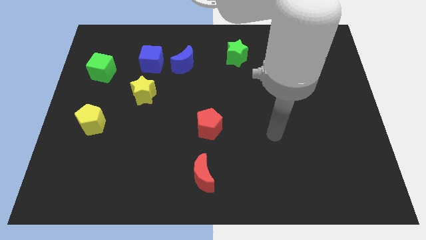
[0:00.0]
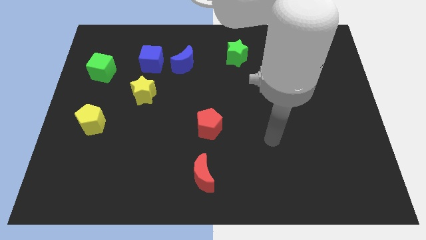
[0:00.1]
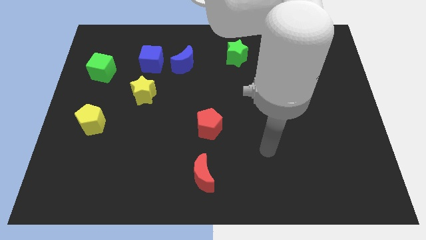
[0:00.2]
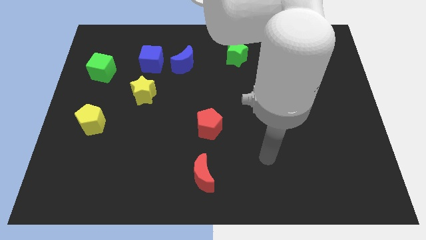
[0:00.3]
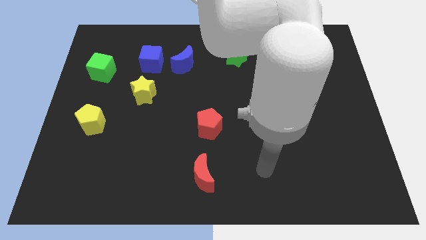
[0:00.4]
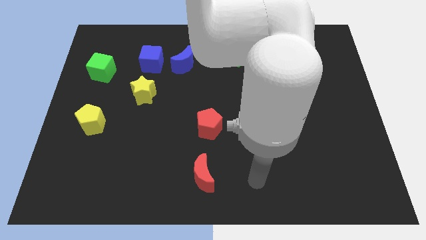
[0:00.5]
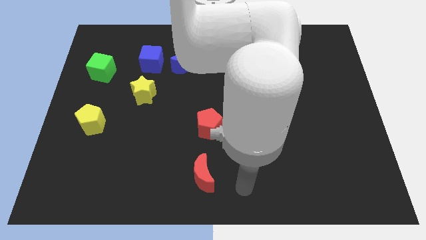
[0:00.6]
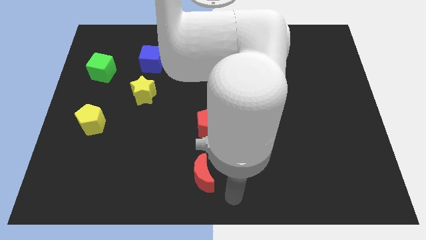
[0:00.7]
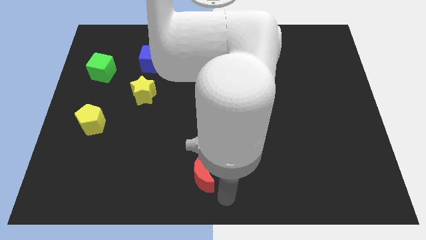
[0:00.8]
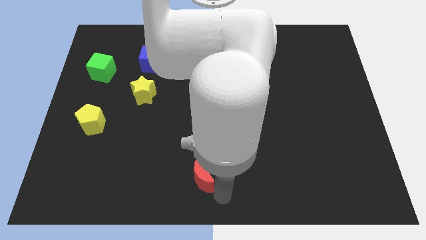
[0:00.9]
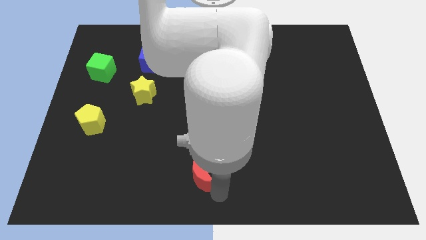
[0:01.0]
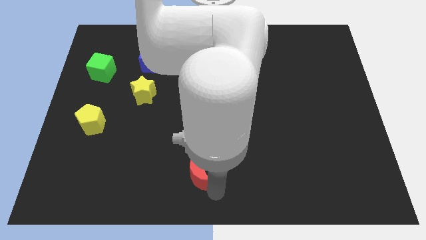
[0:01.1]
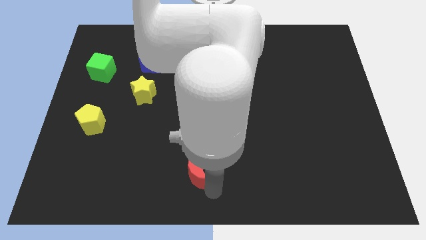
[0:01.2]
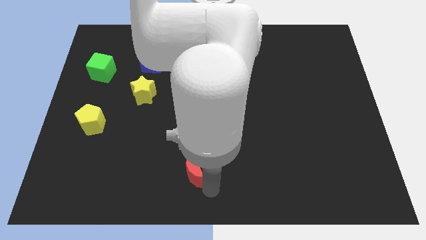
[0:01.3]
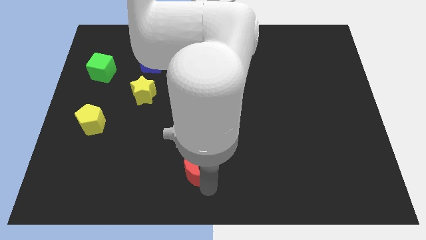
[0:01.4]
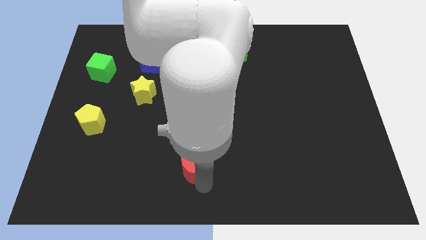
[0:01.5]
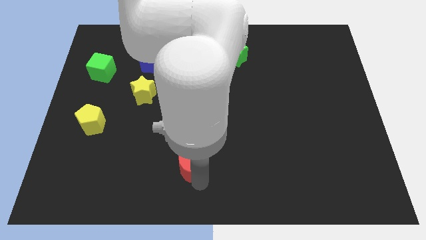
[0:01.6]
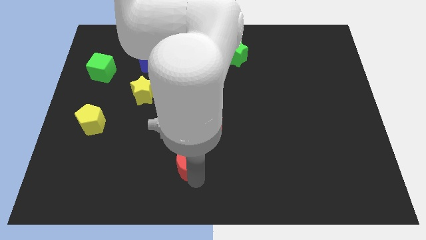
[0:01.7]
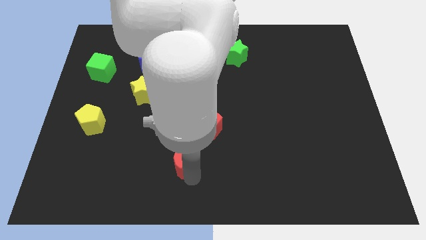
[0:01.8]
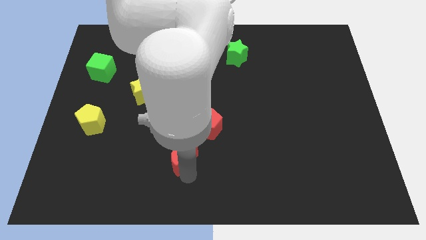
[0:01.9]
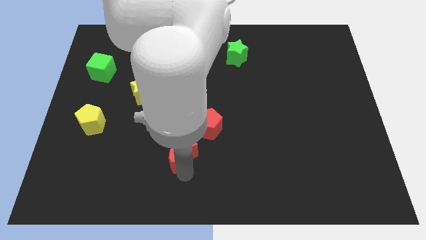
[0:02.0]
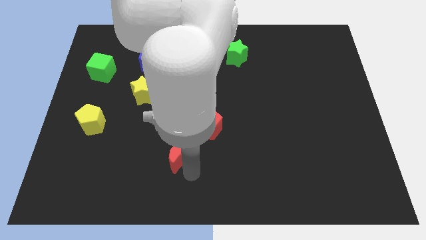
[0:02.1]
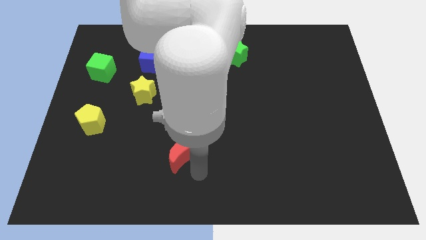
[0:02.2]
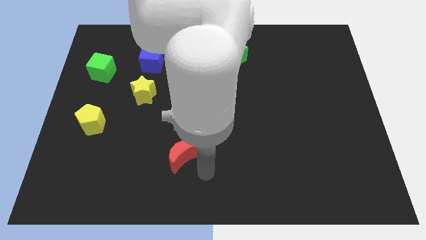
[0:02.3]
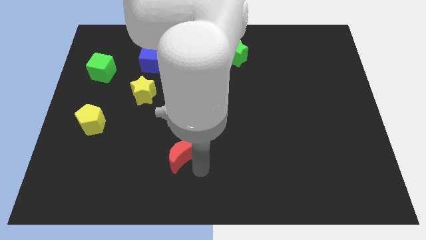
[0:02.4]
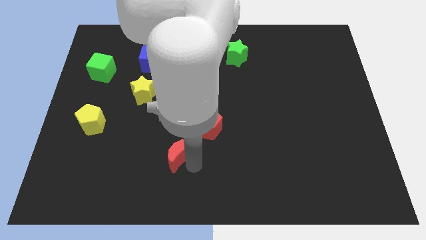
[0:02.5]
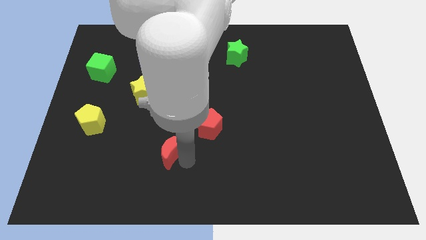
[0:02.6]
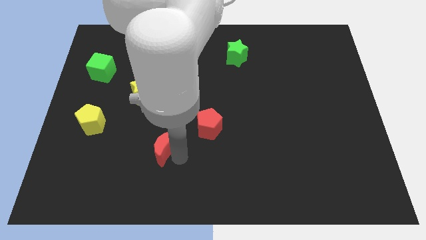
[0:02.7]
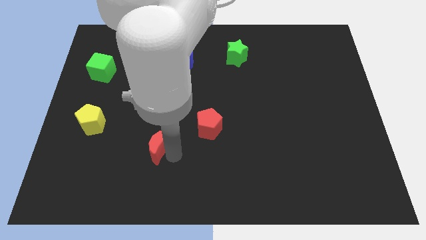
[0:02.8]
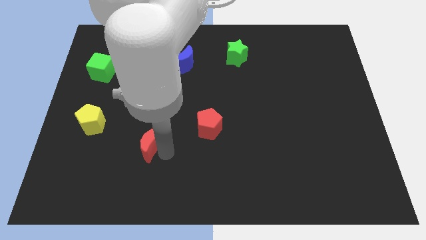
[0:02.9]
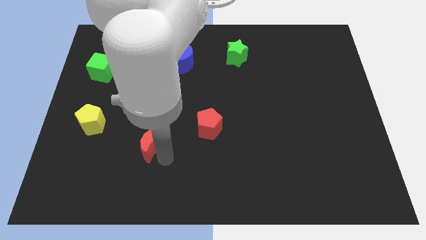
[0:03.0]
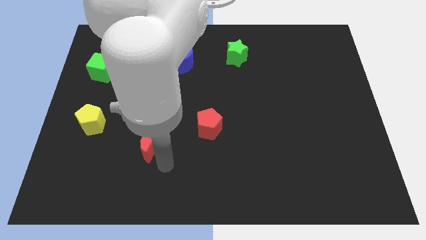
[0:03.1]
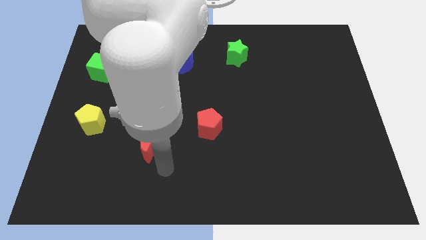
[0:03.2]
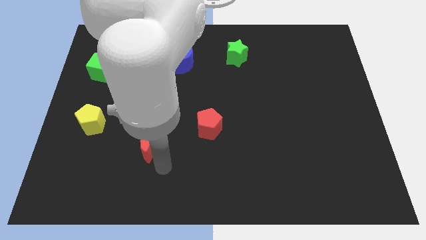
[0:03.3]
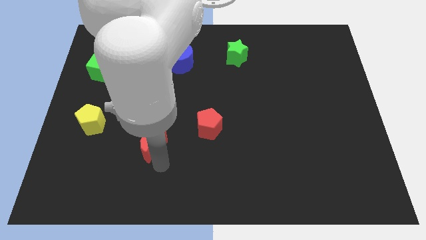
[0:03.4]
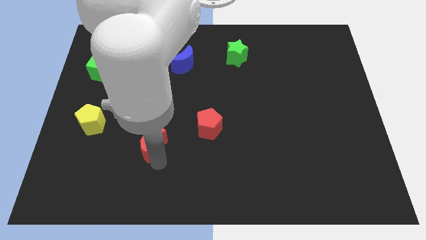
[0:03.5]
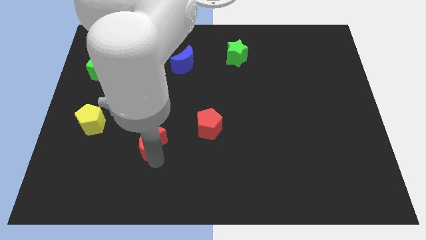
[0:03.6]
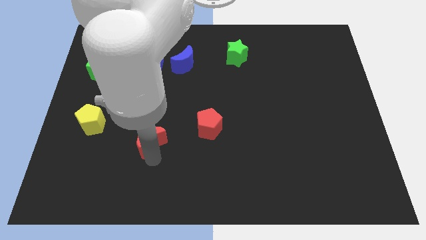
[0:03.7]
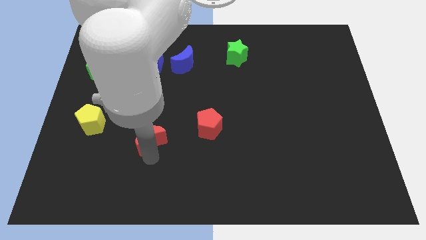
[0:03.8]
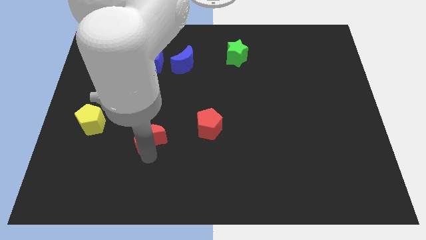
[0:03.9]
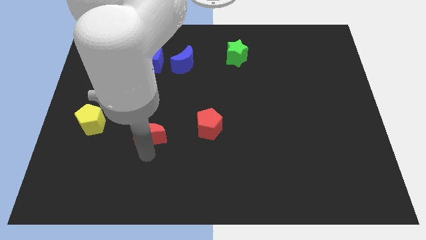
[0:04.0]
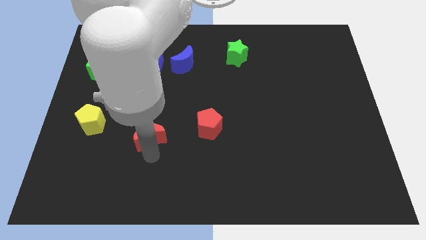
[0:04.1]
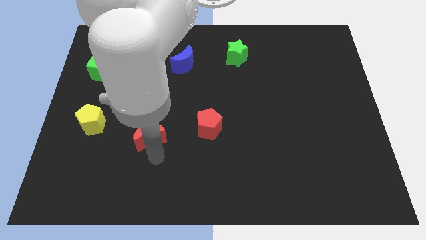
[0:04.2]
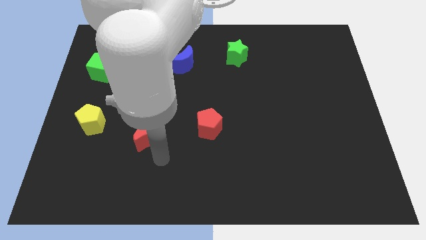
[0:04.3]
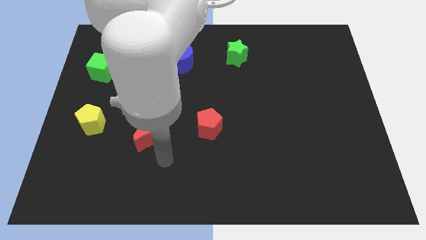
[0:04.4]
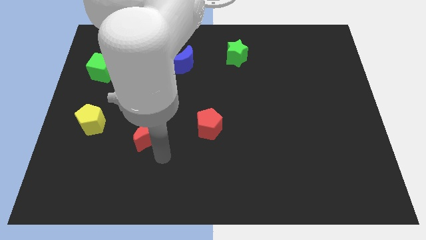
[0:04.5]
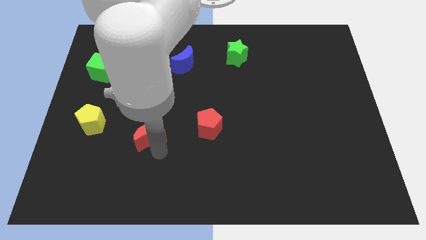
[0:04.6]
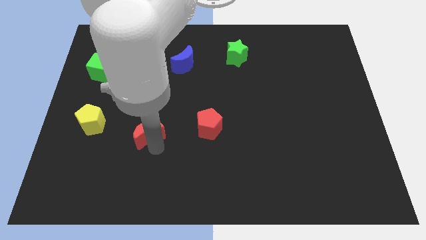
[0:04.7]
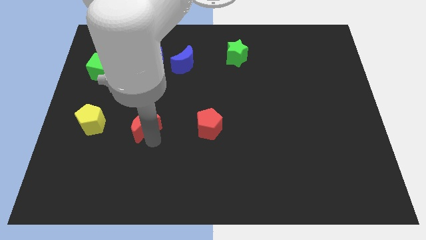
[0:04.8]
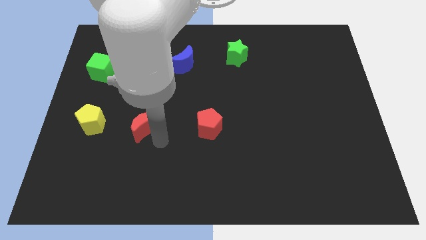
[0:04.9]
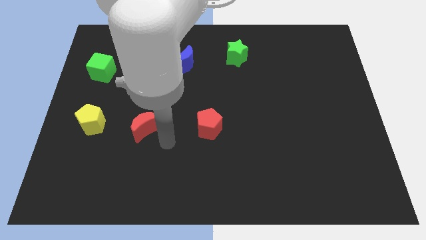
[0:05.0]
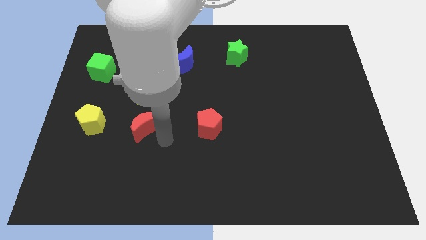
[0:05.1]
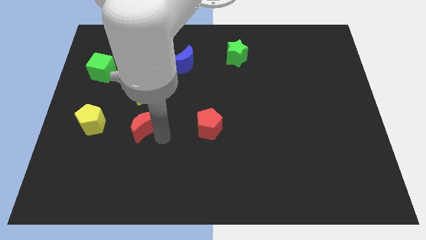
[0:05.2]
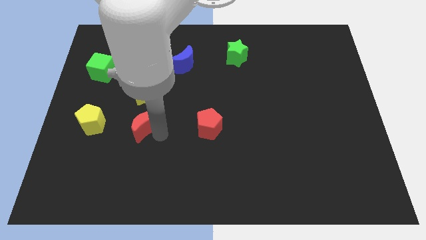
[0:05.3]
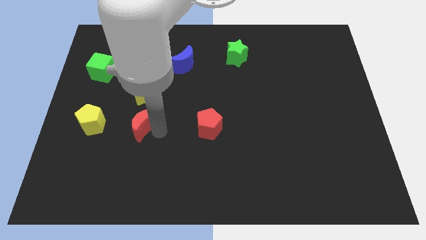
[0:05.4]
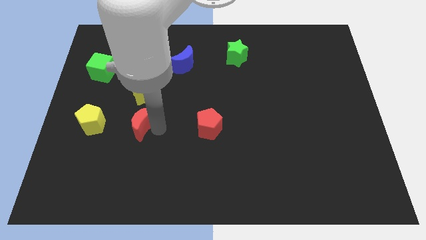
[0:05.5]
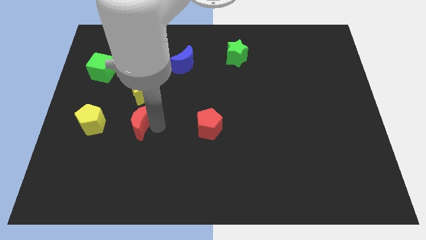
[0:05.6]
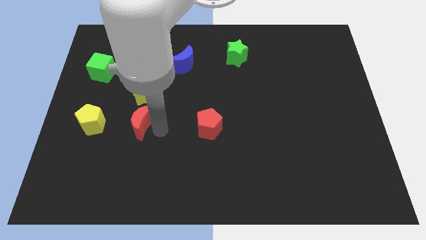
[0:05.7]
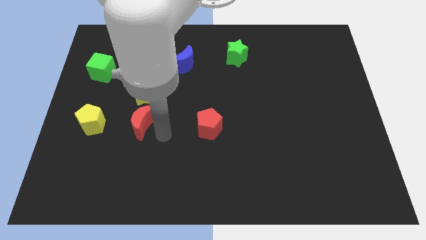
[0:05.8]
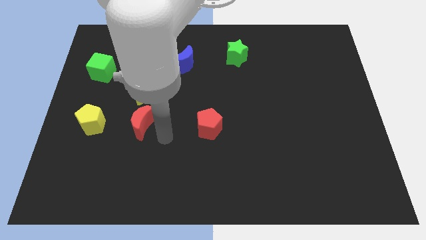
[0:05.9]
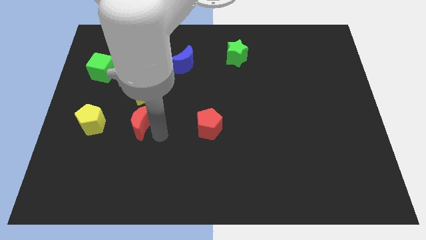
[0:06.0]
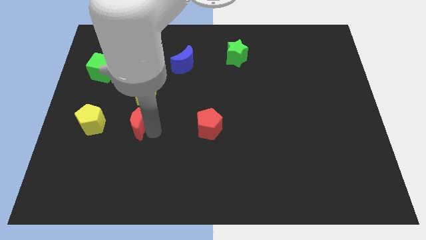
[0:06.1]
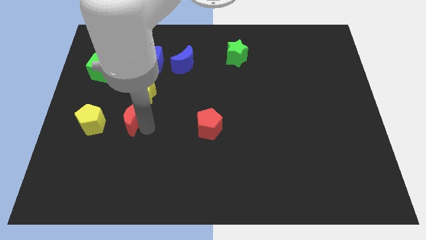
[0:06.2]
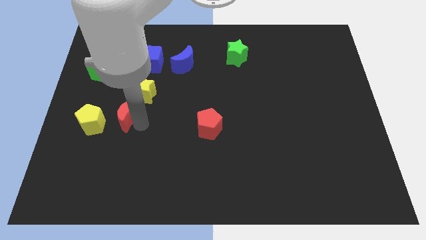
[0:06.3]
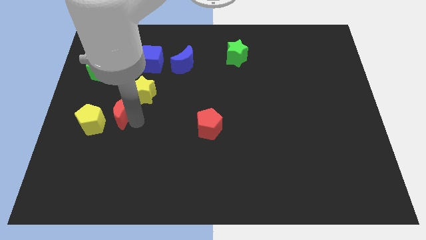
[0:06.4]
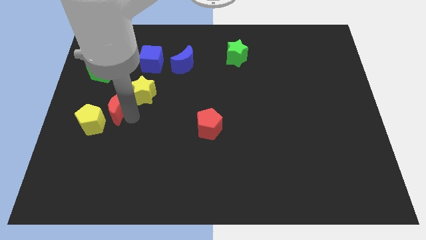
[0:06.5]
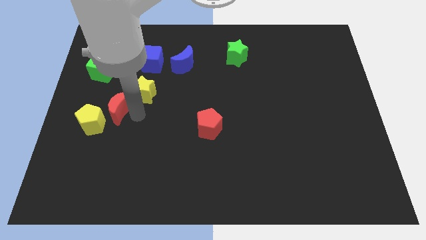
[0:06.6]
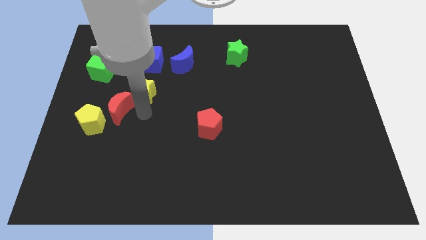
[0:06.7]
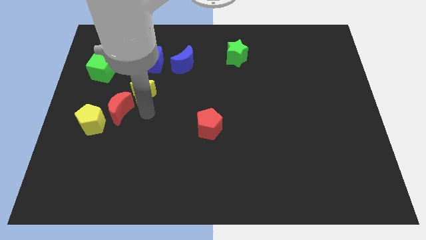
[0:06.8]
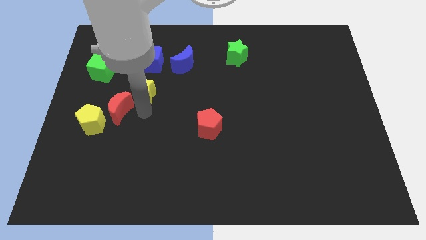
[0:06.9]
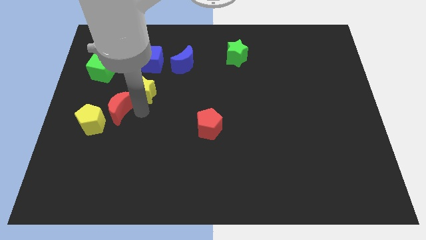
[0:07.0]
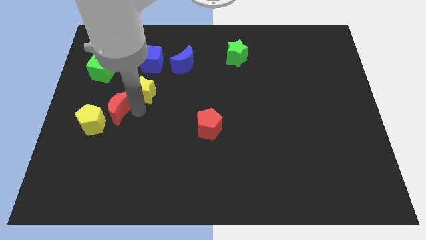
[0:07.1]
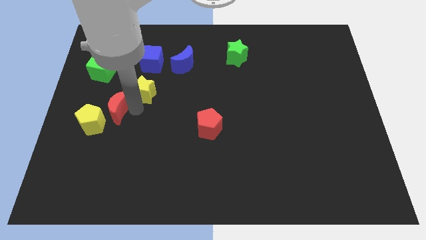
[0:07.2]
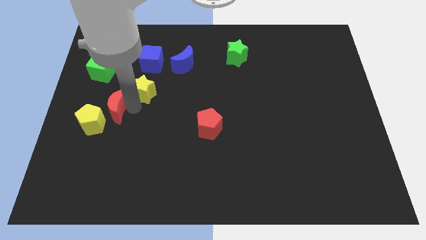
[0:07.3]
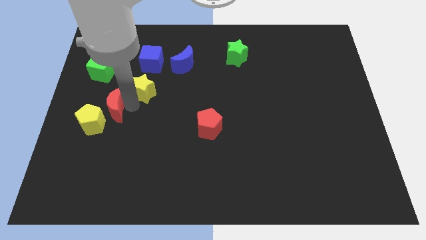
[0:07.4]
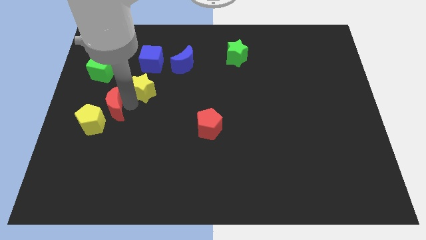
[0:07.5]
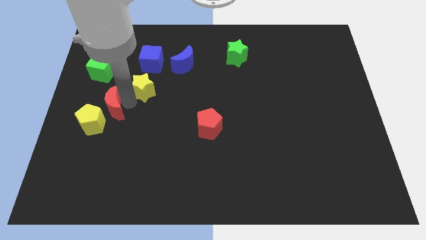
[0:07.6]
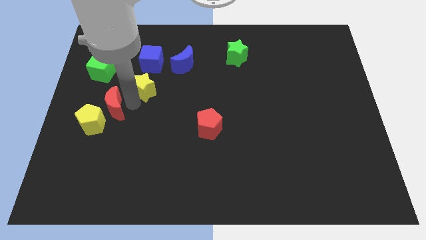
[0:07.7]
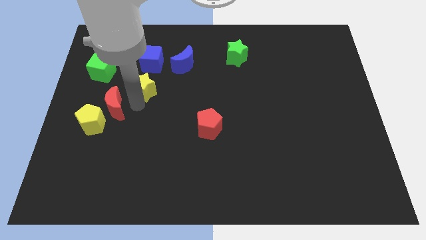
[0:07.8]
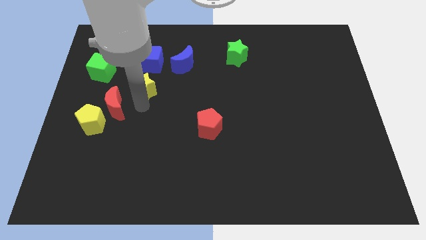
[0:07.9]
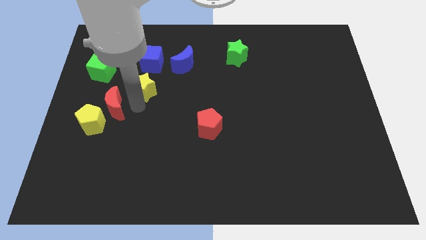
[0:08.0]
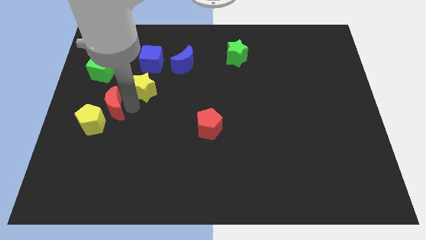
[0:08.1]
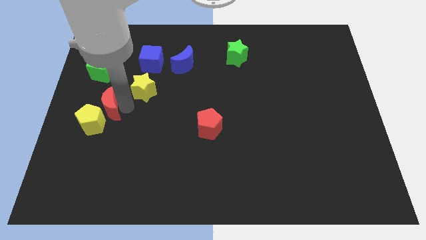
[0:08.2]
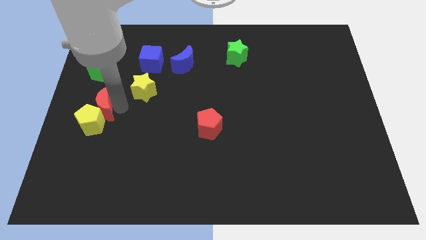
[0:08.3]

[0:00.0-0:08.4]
put the red moon to the center left
